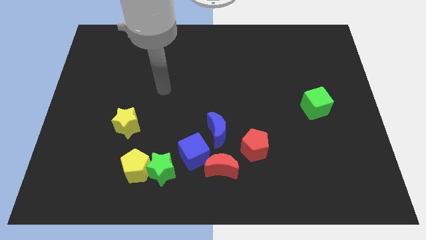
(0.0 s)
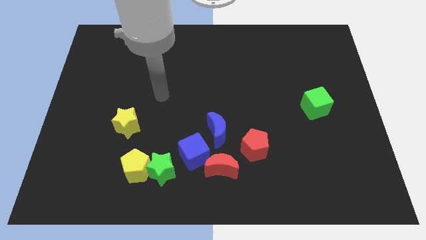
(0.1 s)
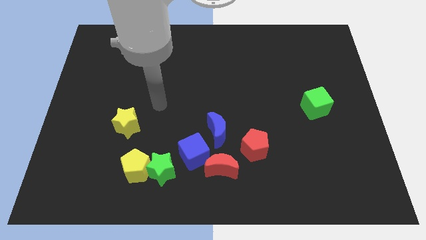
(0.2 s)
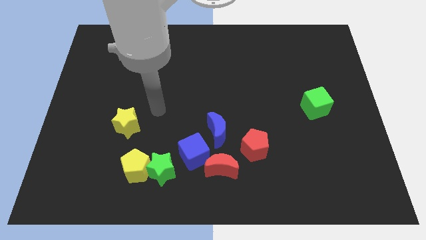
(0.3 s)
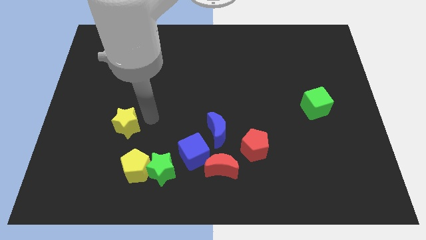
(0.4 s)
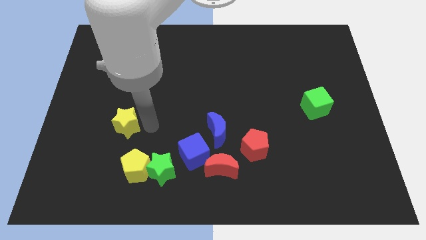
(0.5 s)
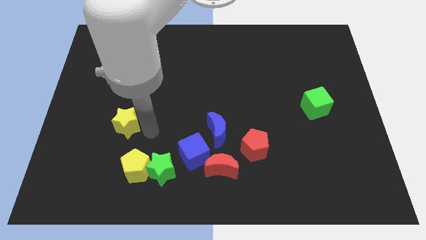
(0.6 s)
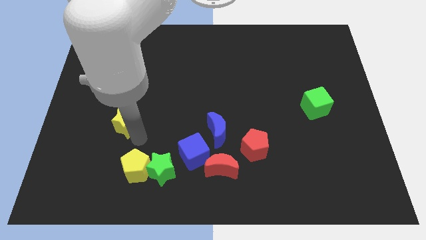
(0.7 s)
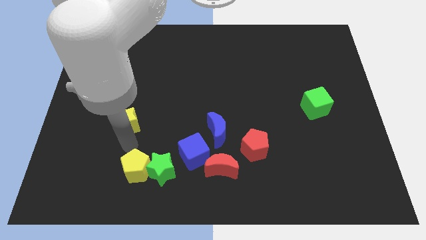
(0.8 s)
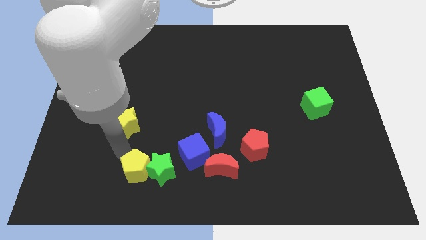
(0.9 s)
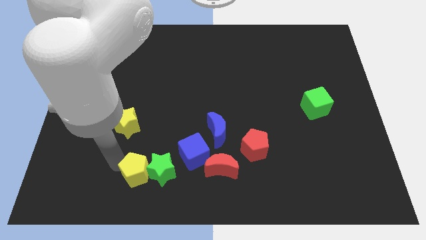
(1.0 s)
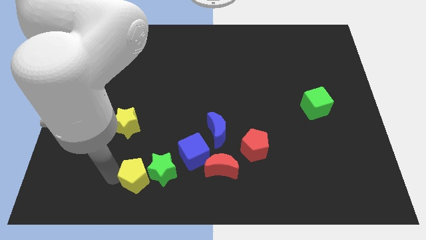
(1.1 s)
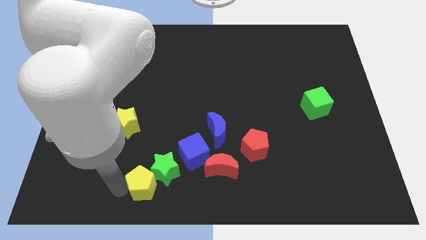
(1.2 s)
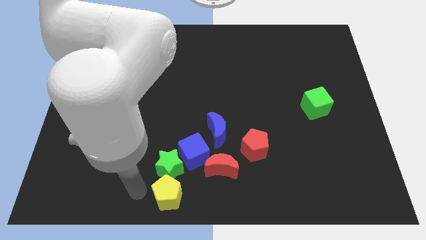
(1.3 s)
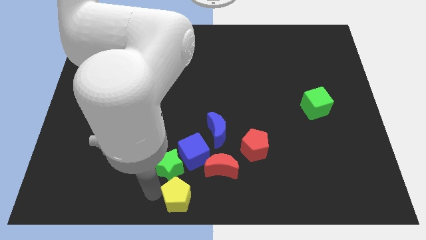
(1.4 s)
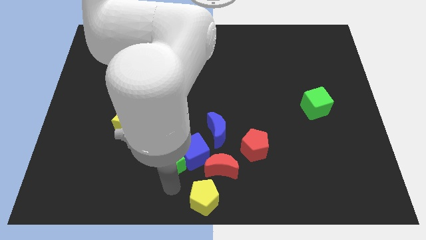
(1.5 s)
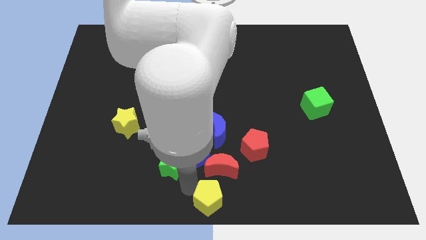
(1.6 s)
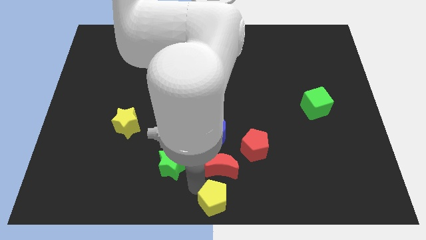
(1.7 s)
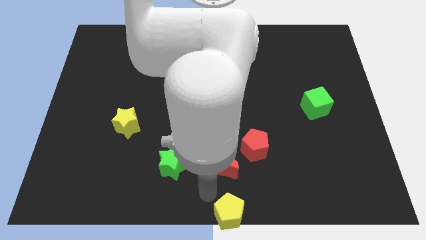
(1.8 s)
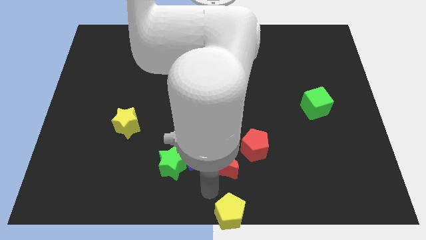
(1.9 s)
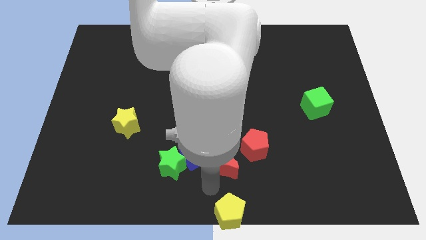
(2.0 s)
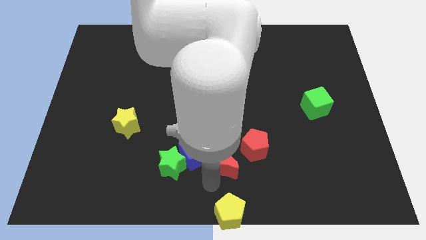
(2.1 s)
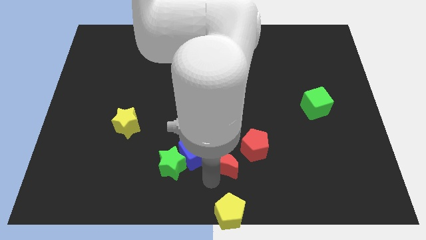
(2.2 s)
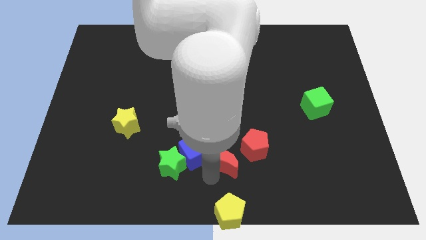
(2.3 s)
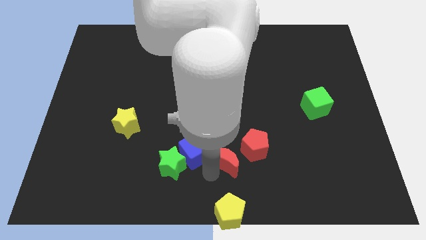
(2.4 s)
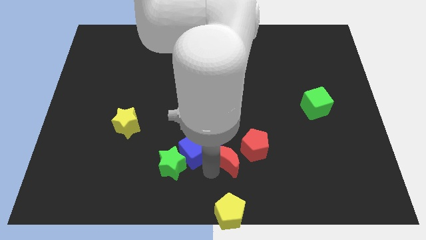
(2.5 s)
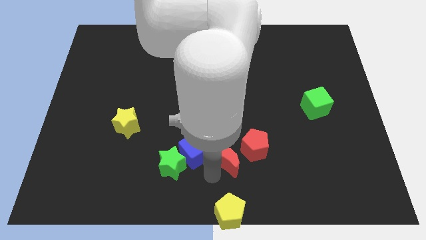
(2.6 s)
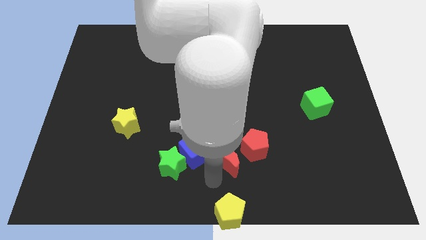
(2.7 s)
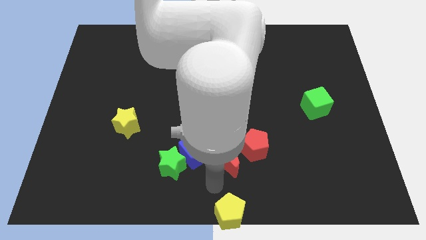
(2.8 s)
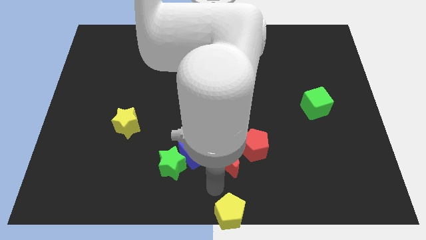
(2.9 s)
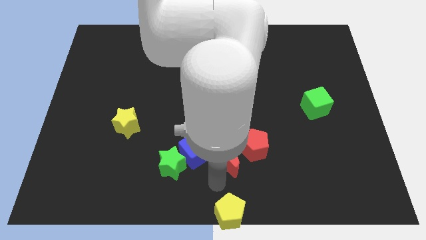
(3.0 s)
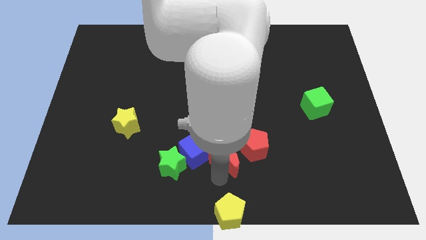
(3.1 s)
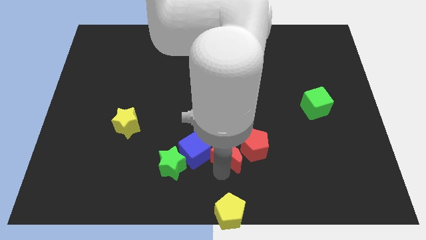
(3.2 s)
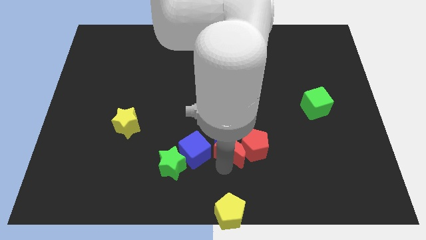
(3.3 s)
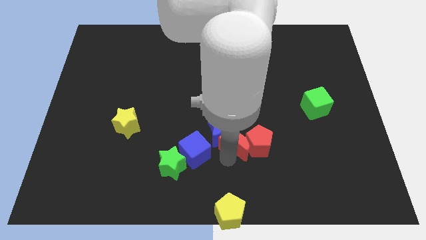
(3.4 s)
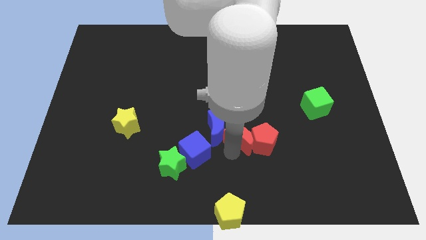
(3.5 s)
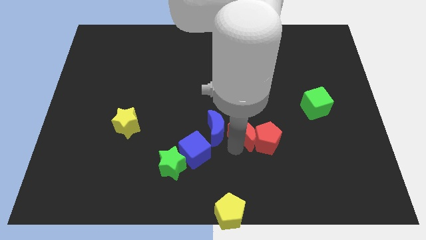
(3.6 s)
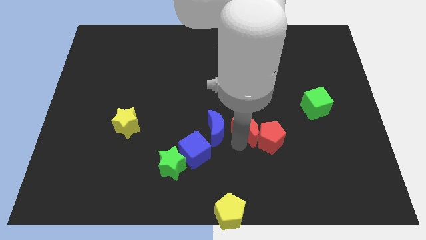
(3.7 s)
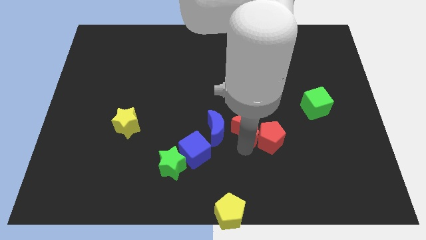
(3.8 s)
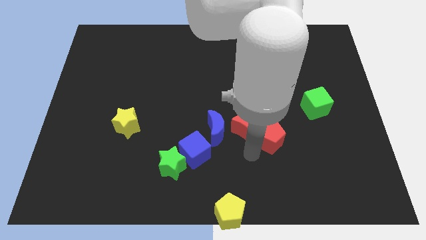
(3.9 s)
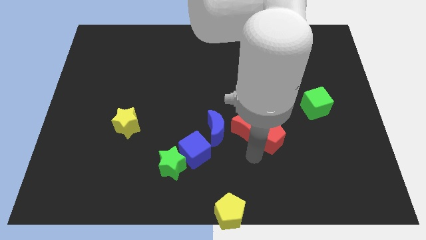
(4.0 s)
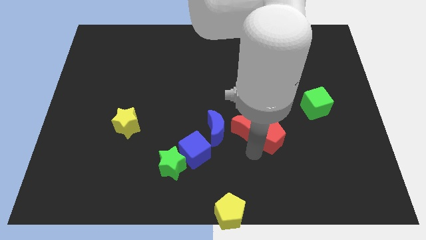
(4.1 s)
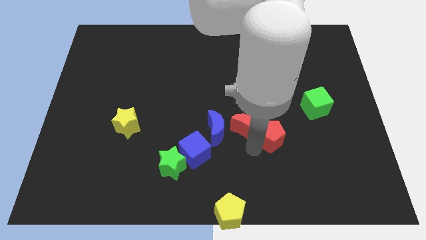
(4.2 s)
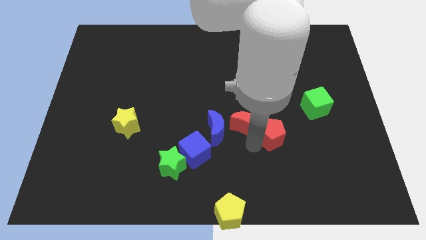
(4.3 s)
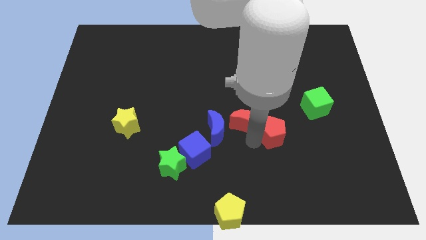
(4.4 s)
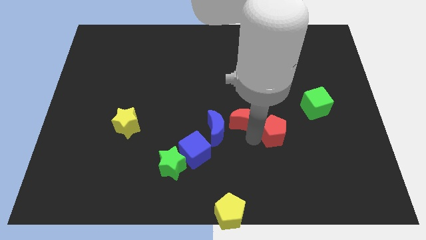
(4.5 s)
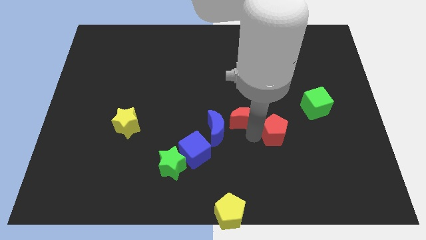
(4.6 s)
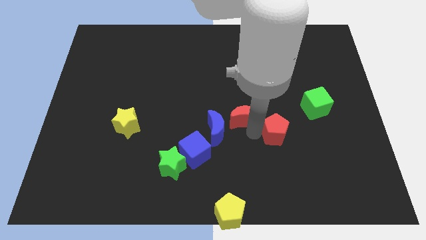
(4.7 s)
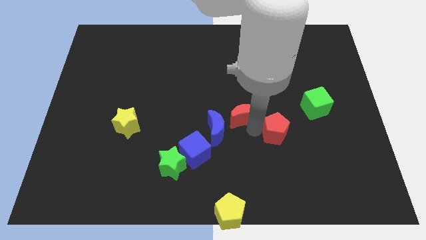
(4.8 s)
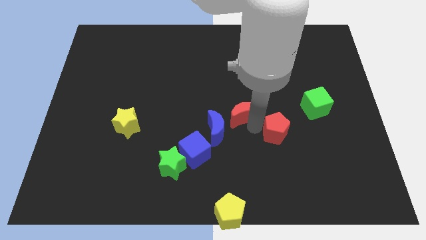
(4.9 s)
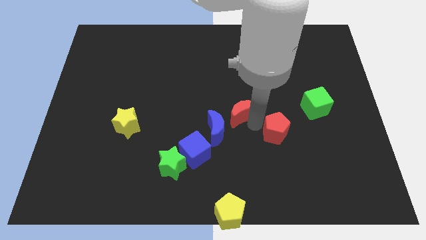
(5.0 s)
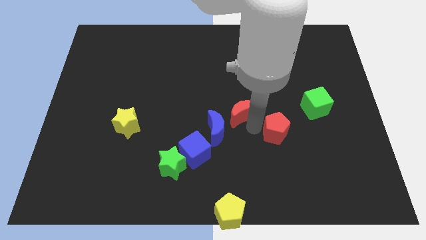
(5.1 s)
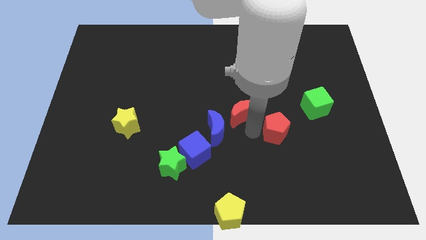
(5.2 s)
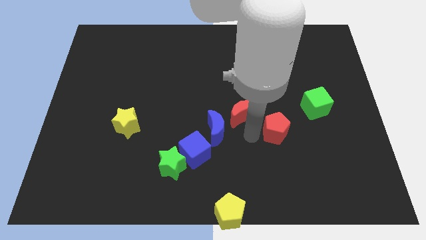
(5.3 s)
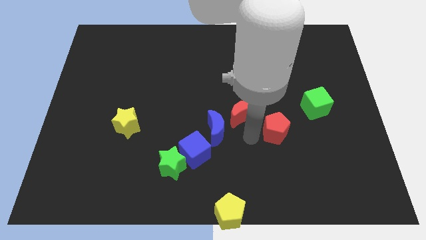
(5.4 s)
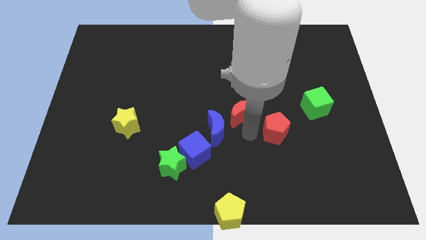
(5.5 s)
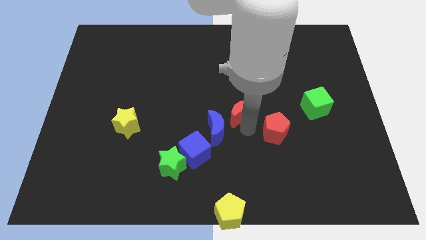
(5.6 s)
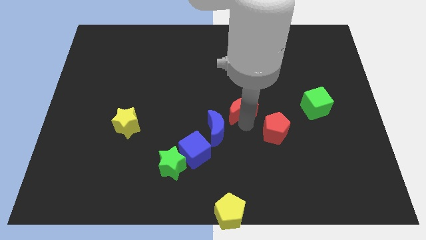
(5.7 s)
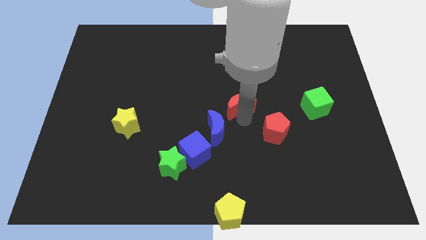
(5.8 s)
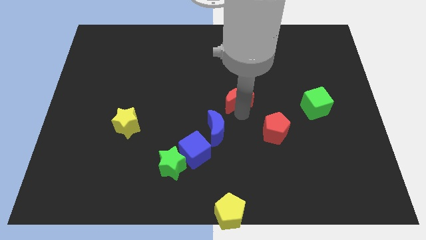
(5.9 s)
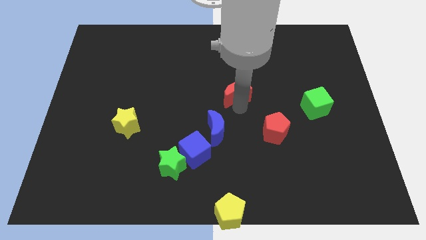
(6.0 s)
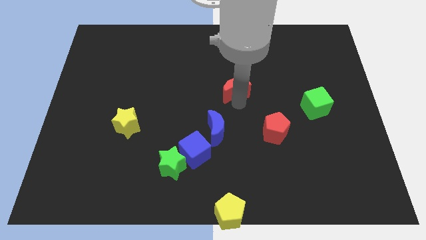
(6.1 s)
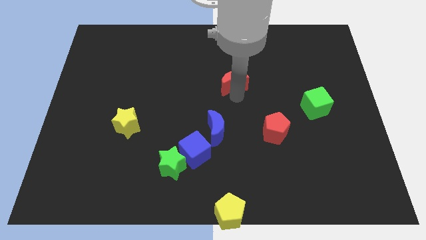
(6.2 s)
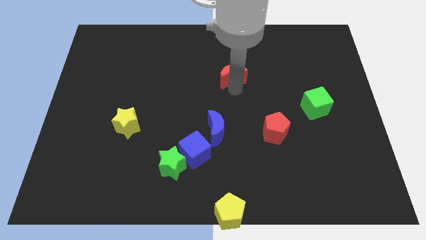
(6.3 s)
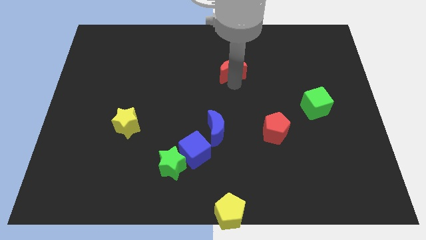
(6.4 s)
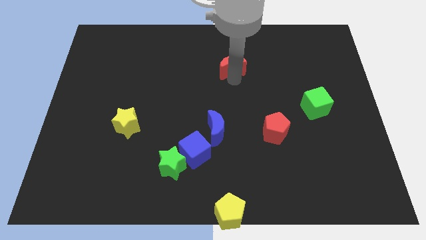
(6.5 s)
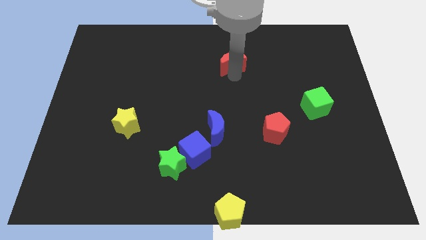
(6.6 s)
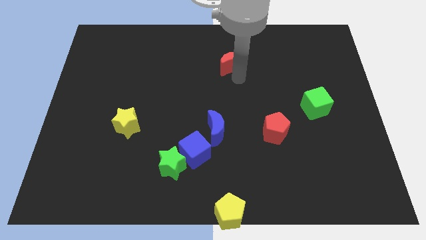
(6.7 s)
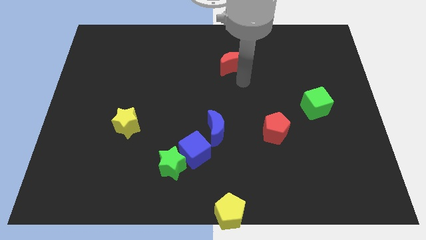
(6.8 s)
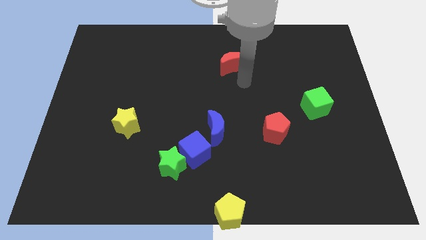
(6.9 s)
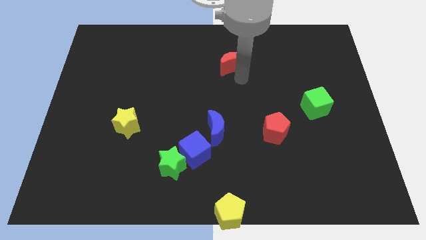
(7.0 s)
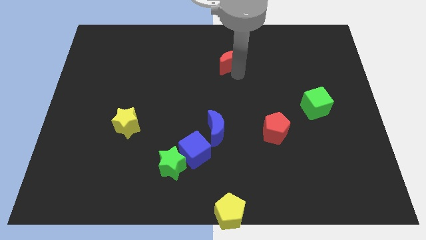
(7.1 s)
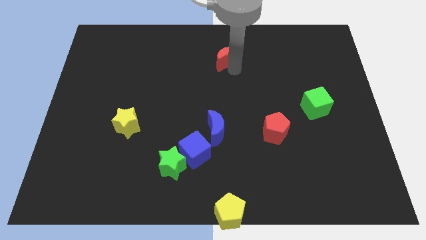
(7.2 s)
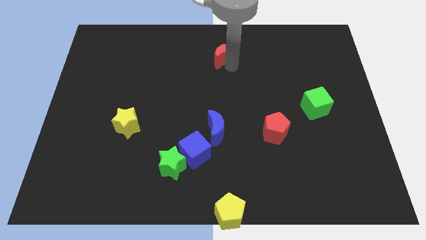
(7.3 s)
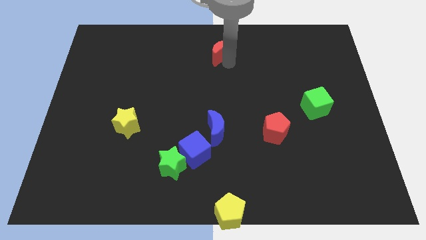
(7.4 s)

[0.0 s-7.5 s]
put the red moon to the towards your base
